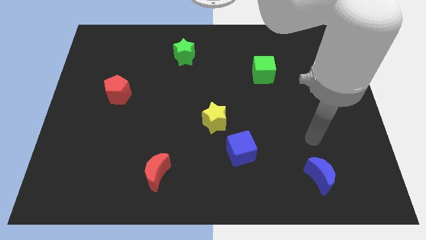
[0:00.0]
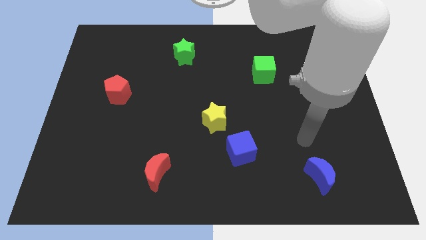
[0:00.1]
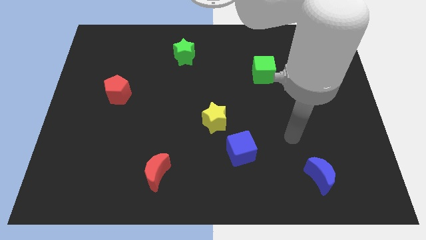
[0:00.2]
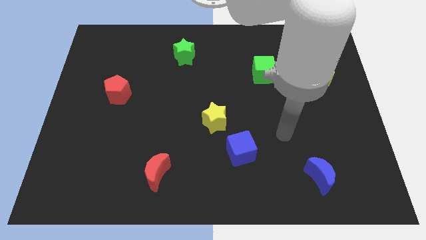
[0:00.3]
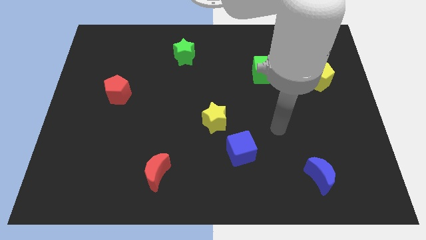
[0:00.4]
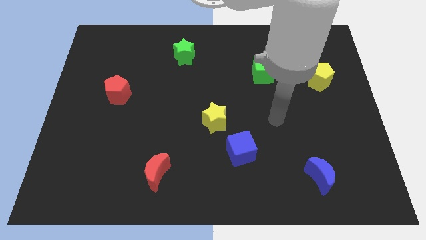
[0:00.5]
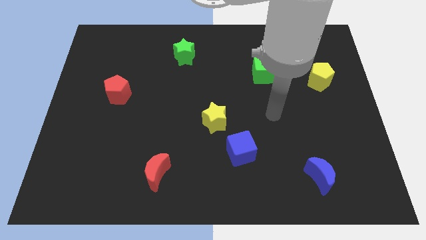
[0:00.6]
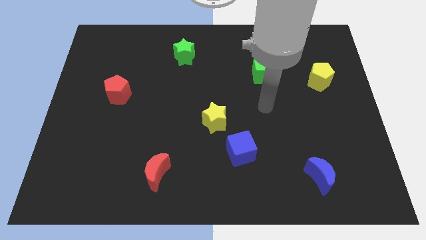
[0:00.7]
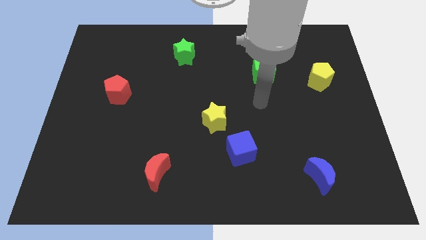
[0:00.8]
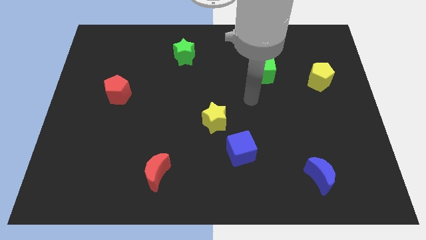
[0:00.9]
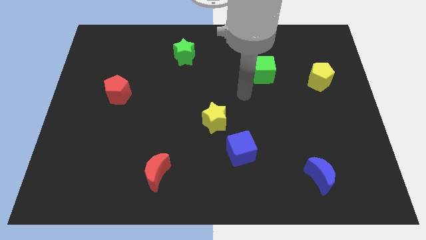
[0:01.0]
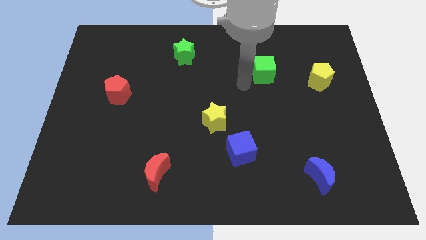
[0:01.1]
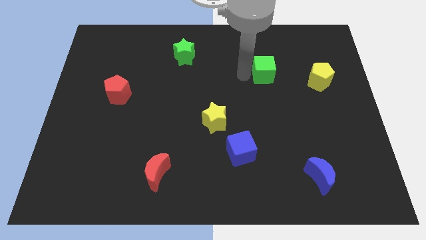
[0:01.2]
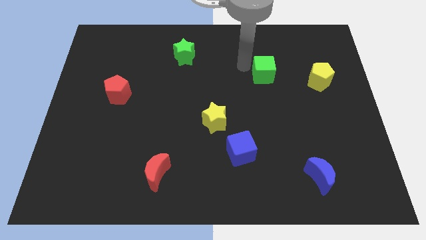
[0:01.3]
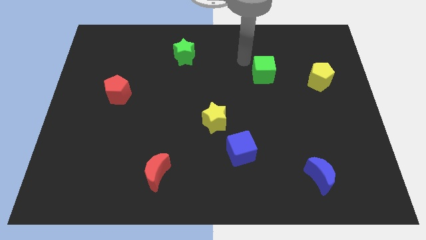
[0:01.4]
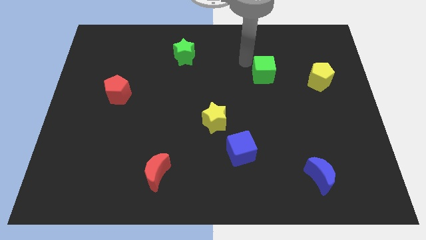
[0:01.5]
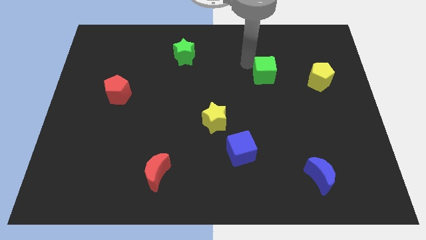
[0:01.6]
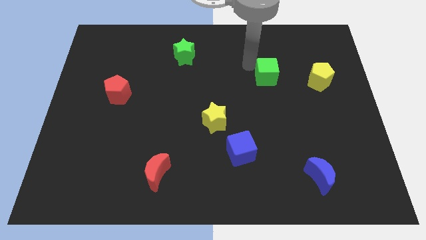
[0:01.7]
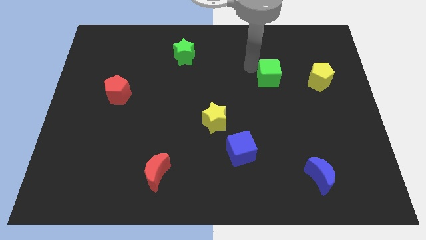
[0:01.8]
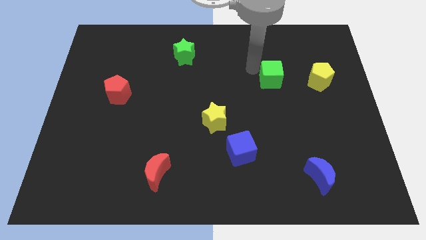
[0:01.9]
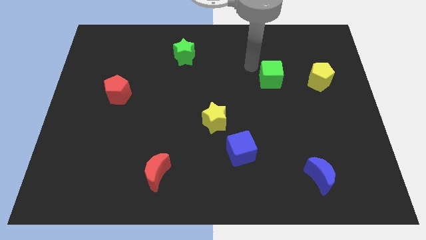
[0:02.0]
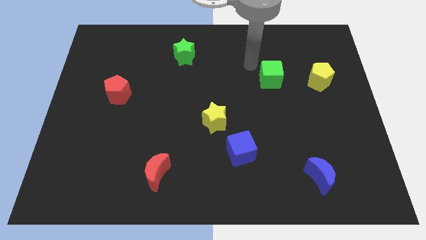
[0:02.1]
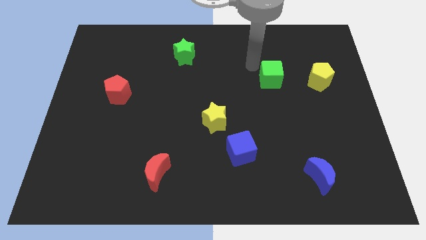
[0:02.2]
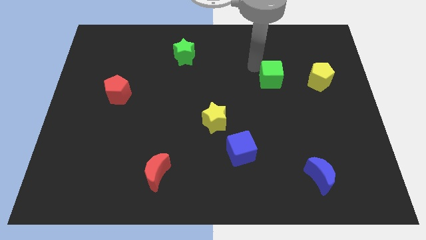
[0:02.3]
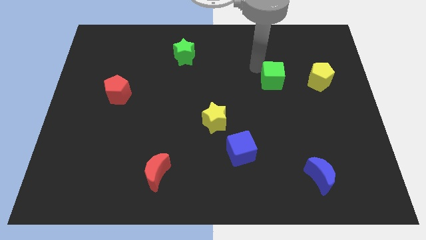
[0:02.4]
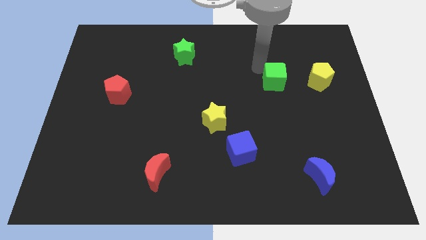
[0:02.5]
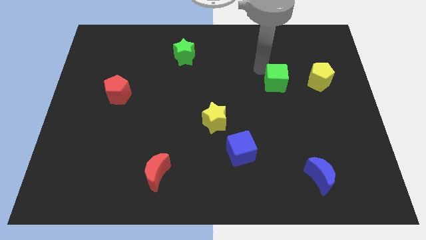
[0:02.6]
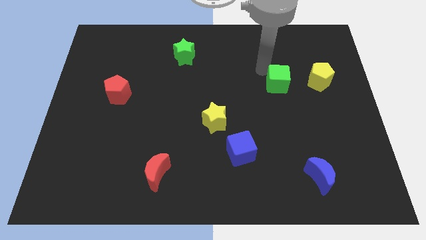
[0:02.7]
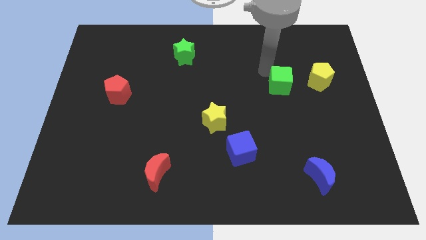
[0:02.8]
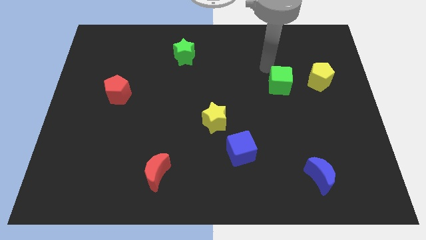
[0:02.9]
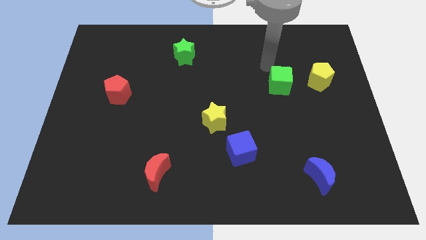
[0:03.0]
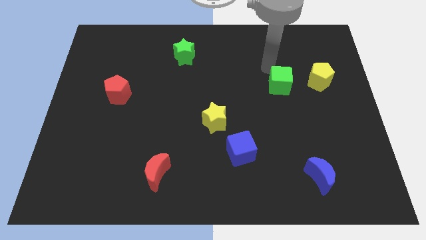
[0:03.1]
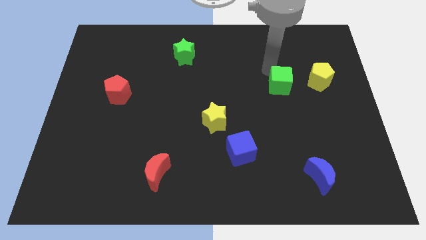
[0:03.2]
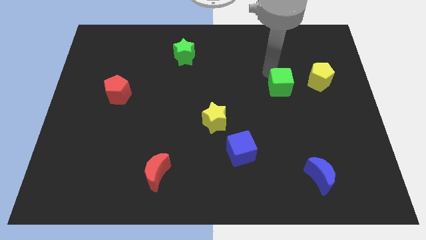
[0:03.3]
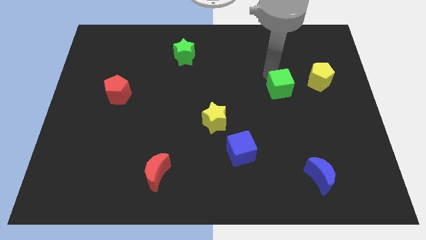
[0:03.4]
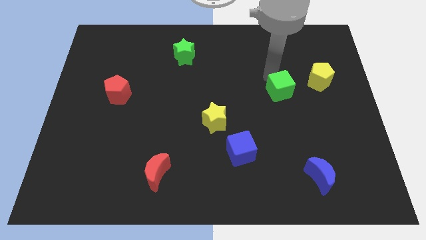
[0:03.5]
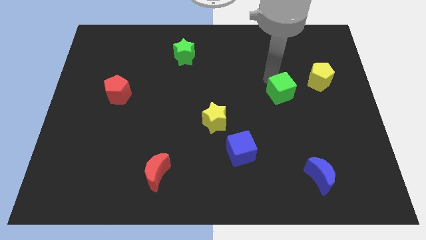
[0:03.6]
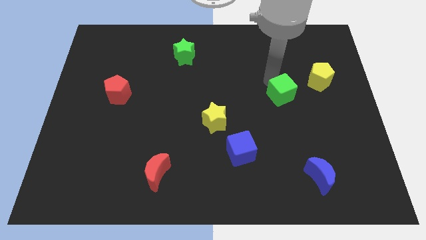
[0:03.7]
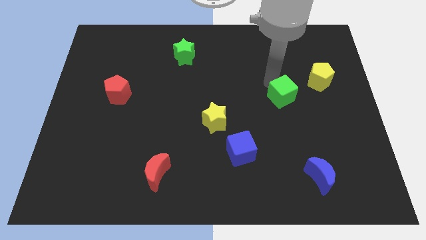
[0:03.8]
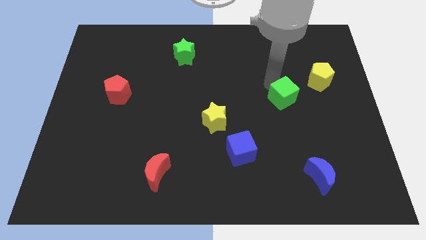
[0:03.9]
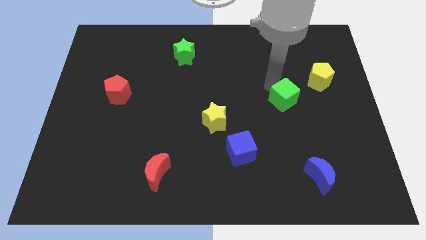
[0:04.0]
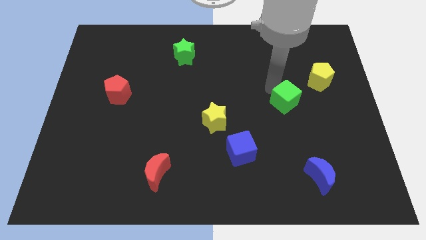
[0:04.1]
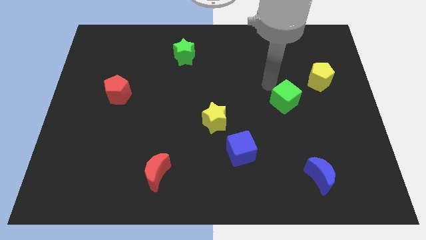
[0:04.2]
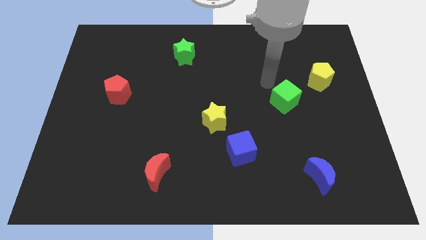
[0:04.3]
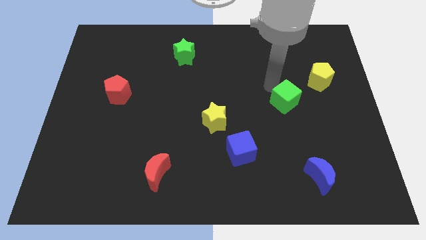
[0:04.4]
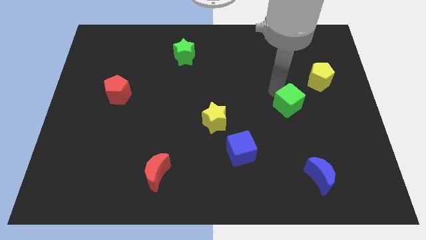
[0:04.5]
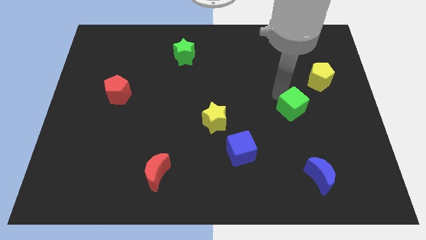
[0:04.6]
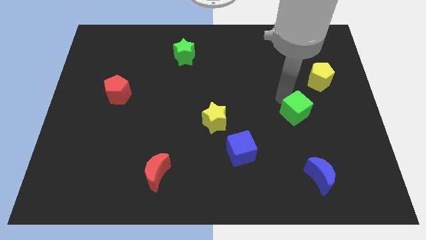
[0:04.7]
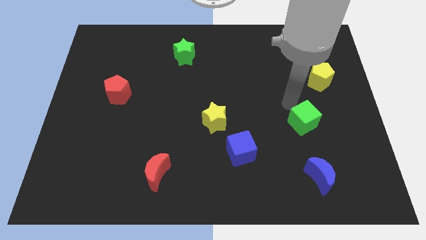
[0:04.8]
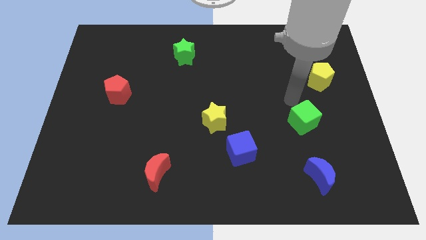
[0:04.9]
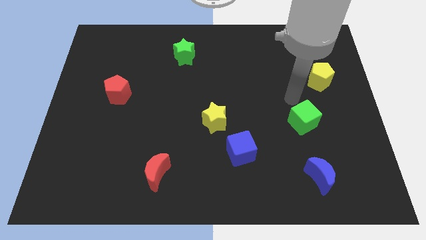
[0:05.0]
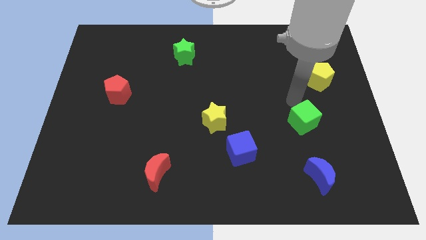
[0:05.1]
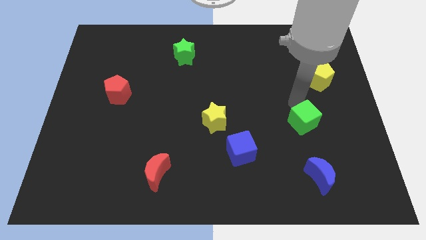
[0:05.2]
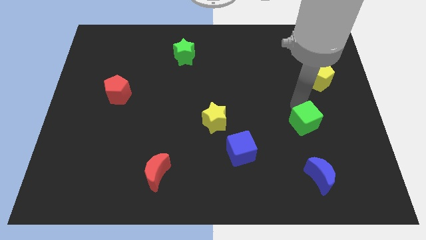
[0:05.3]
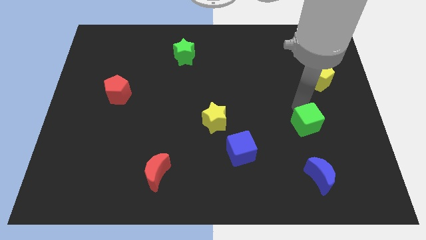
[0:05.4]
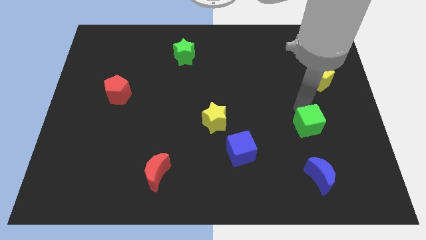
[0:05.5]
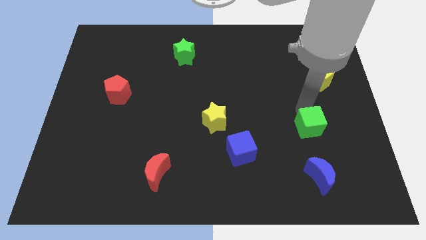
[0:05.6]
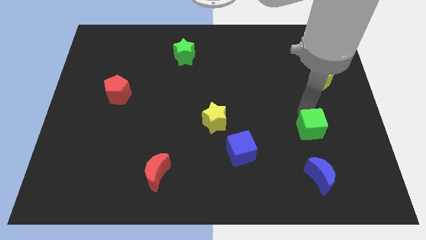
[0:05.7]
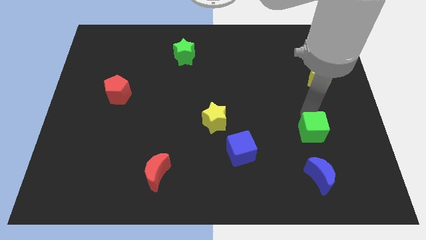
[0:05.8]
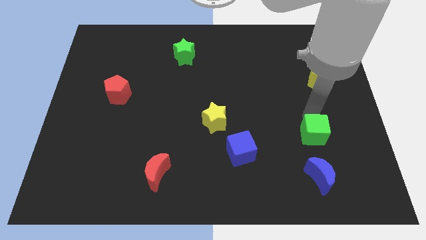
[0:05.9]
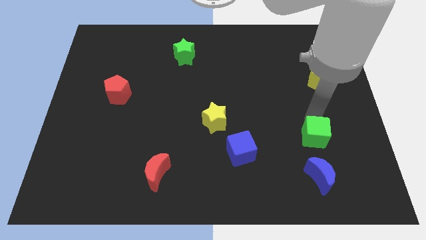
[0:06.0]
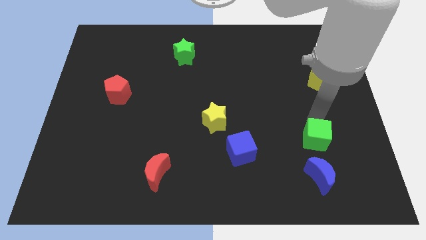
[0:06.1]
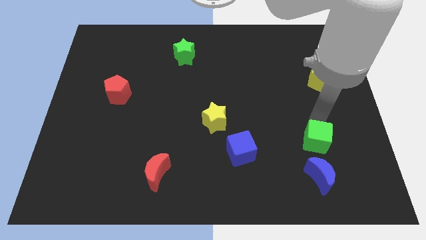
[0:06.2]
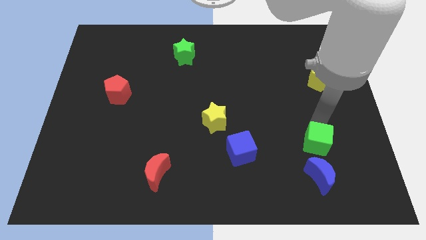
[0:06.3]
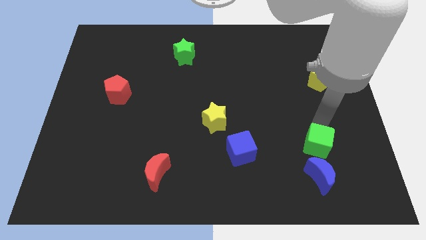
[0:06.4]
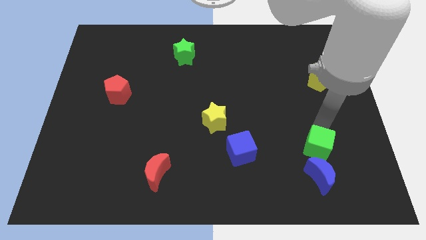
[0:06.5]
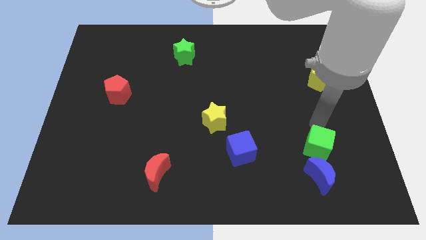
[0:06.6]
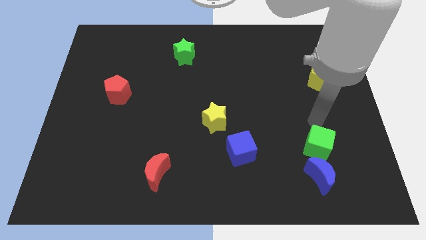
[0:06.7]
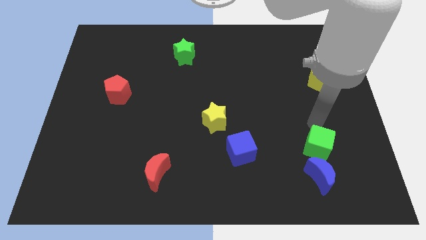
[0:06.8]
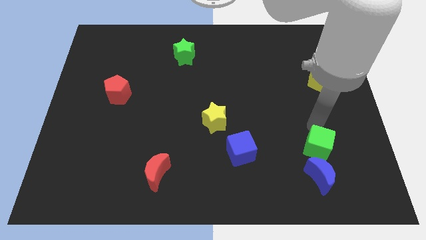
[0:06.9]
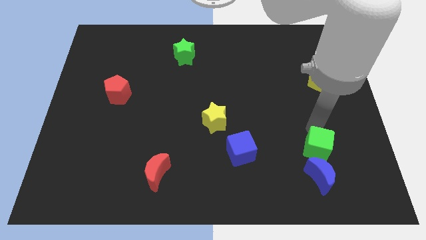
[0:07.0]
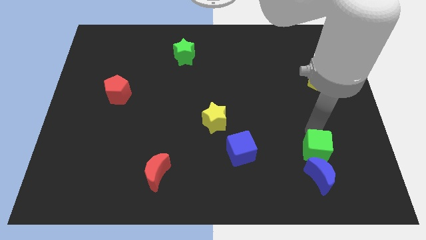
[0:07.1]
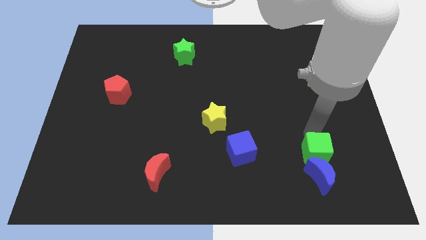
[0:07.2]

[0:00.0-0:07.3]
slide the green cube next to the blue moon
